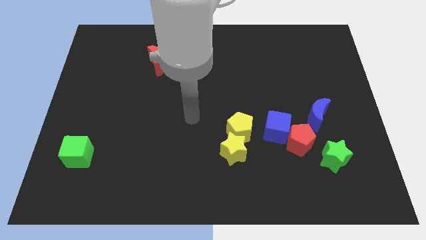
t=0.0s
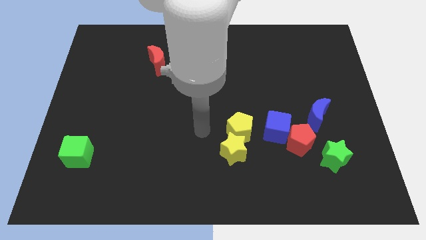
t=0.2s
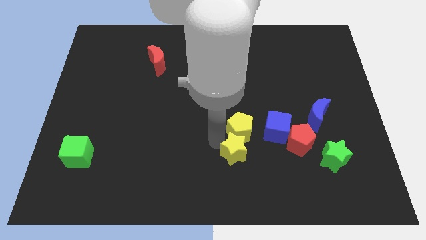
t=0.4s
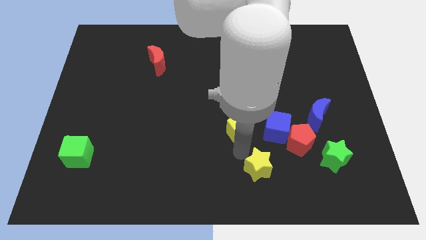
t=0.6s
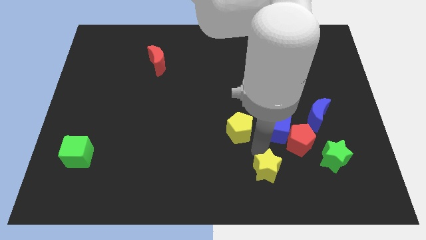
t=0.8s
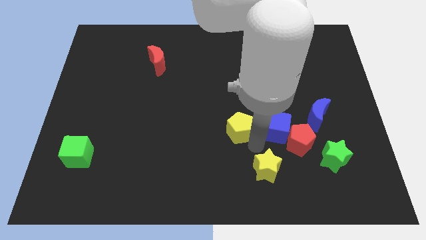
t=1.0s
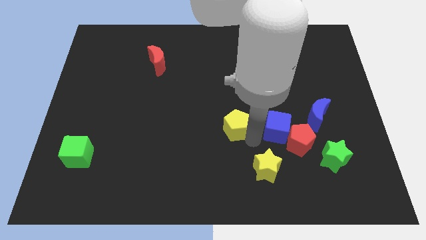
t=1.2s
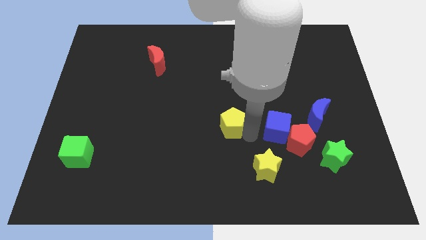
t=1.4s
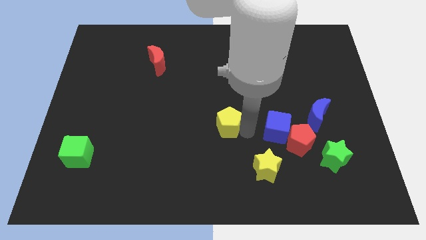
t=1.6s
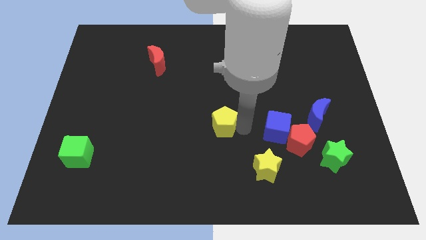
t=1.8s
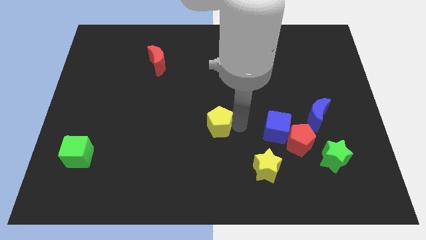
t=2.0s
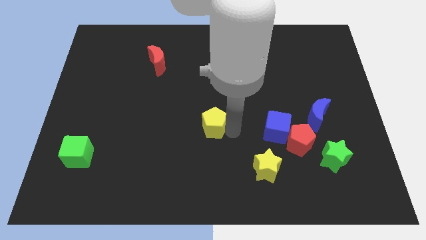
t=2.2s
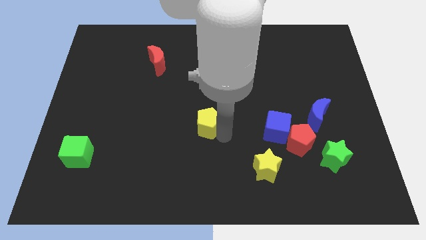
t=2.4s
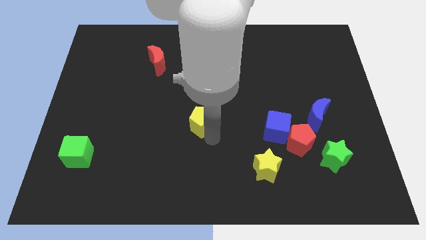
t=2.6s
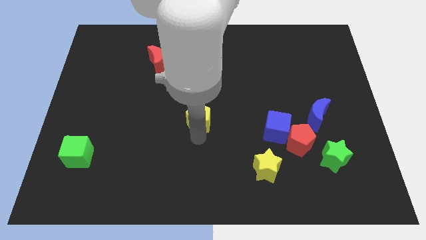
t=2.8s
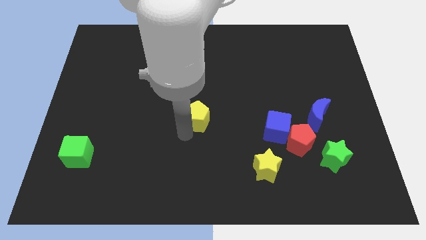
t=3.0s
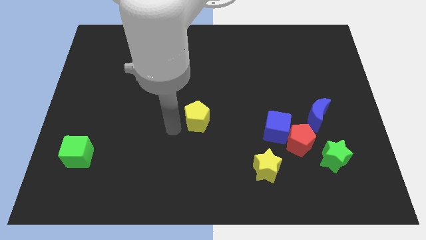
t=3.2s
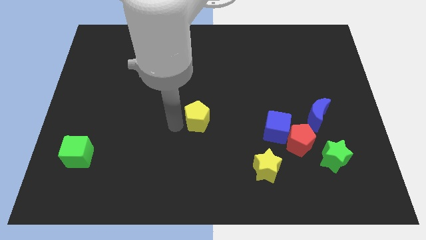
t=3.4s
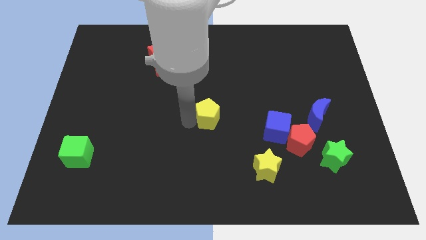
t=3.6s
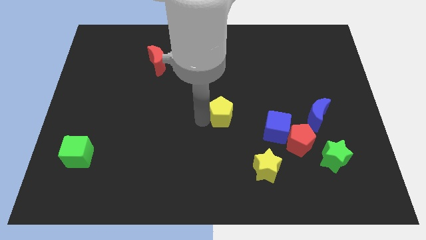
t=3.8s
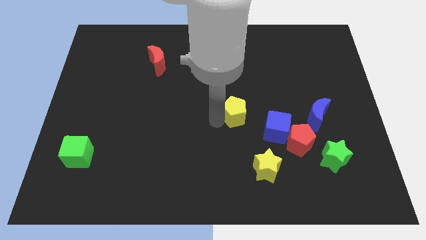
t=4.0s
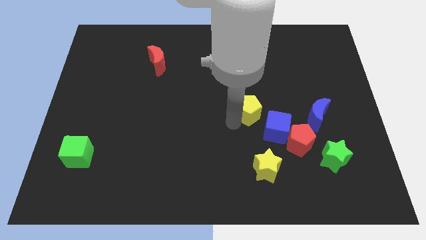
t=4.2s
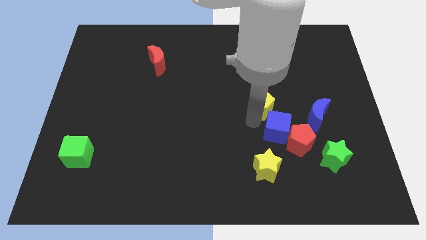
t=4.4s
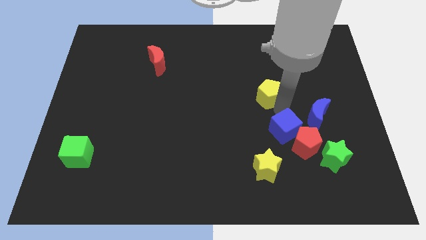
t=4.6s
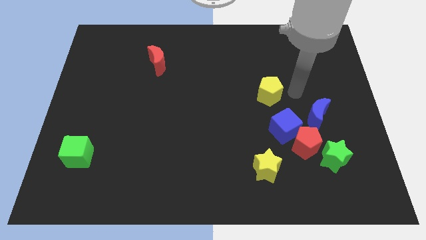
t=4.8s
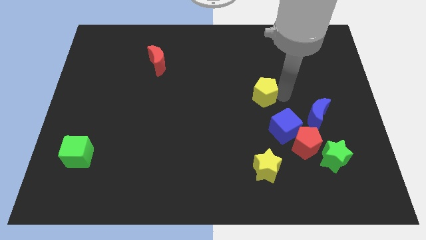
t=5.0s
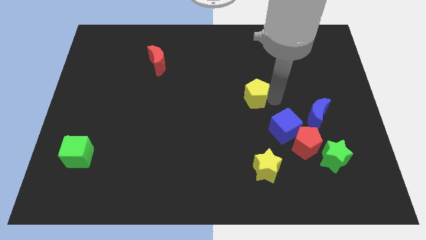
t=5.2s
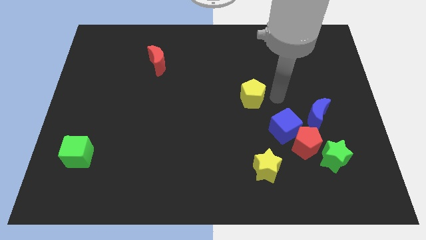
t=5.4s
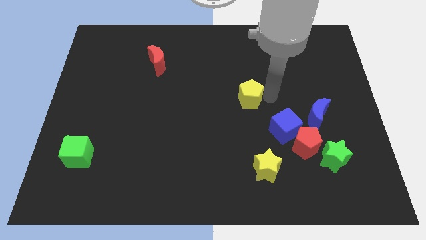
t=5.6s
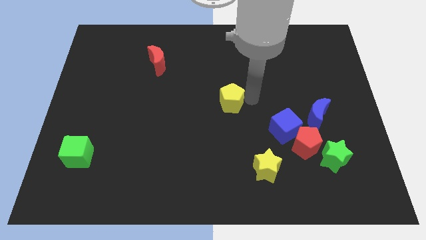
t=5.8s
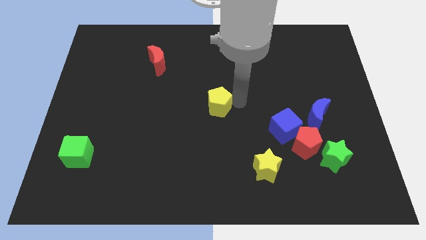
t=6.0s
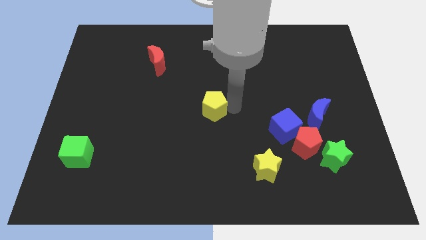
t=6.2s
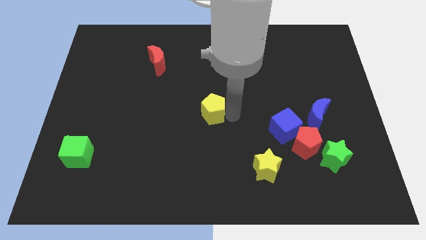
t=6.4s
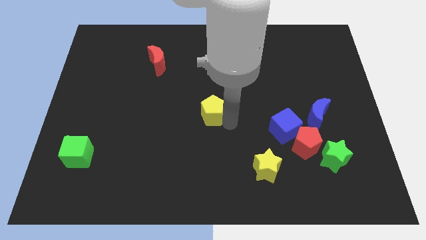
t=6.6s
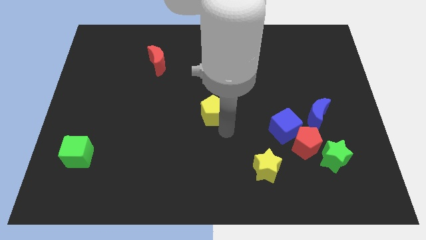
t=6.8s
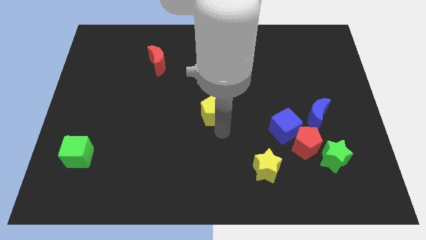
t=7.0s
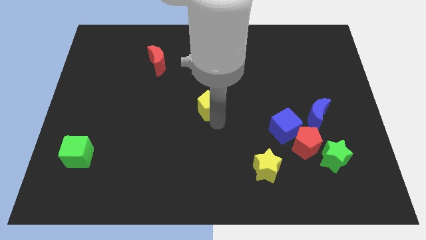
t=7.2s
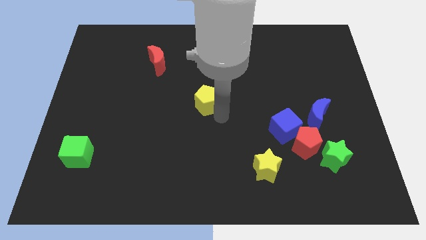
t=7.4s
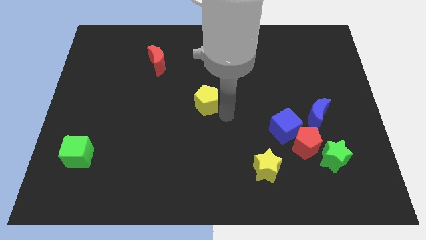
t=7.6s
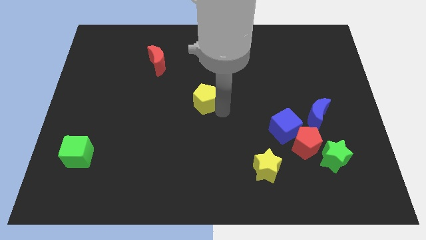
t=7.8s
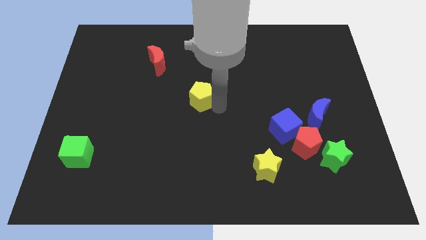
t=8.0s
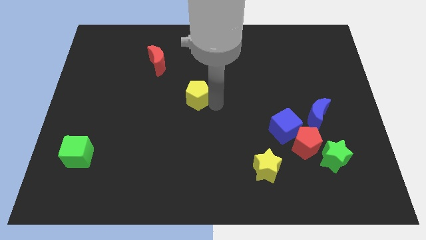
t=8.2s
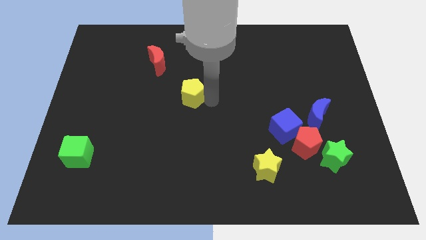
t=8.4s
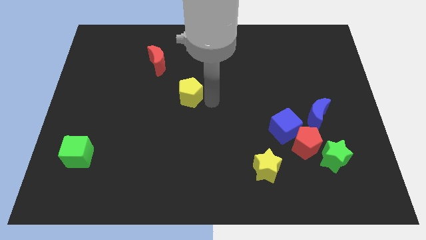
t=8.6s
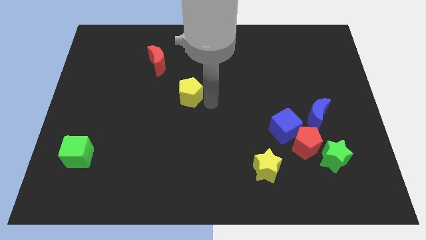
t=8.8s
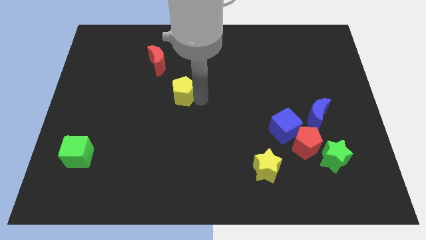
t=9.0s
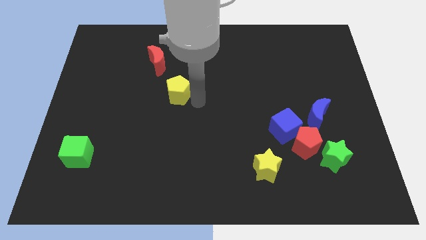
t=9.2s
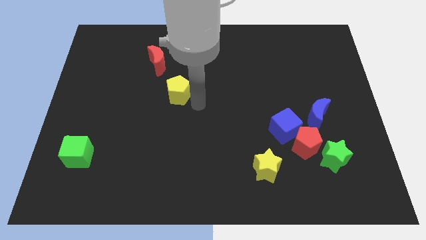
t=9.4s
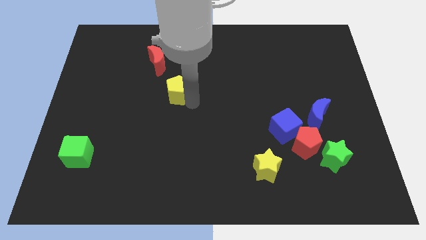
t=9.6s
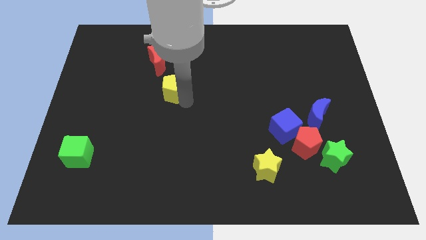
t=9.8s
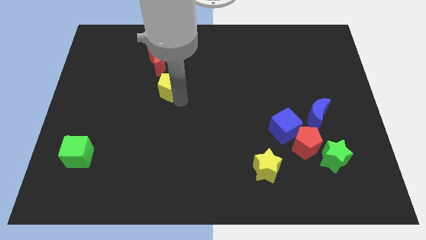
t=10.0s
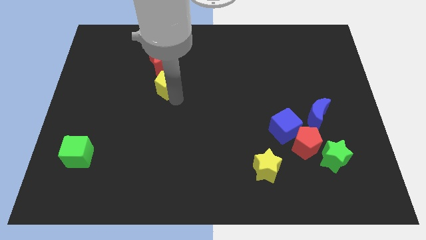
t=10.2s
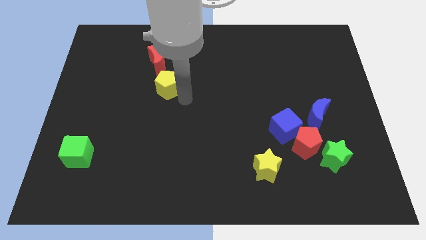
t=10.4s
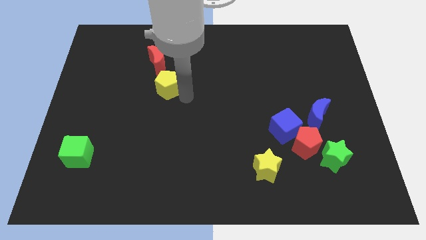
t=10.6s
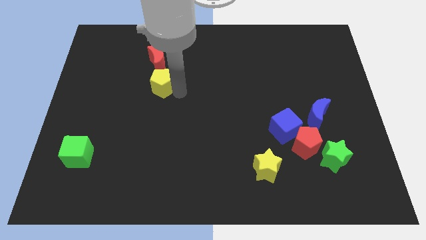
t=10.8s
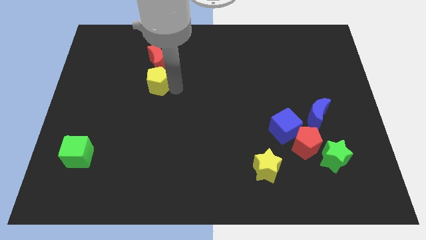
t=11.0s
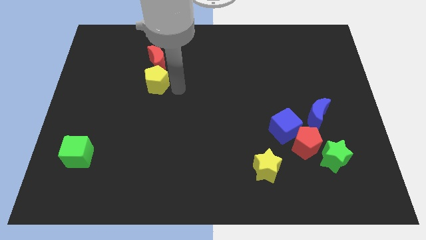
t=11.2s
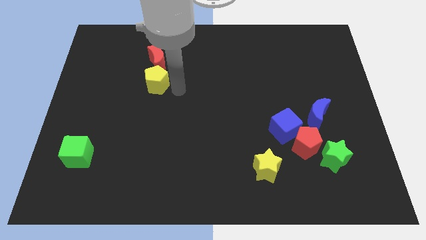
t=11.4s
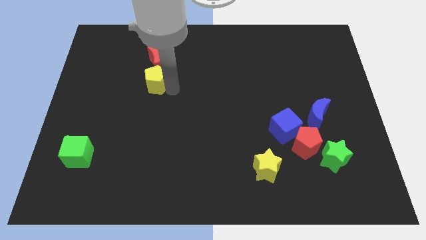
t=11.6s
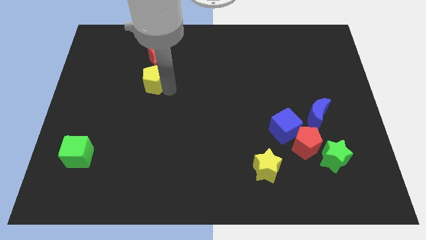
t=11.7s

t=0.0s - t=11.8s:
push the yellow pentagon to the bottom left side of the red moon
